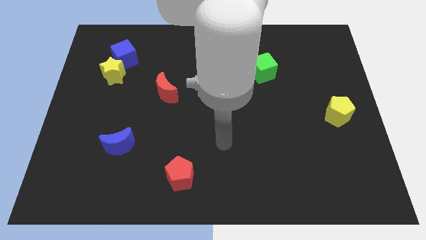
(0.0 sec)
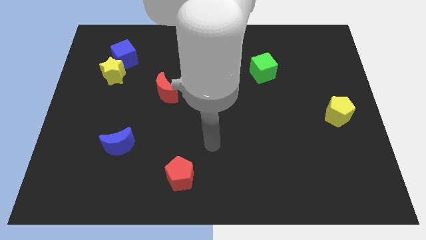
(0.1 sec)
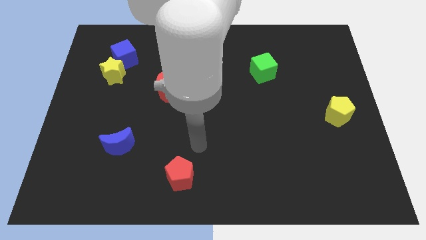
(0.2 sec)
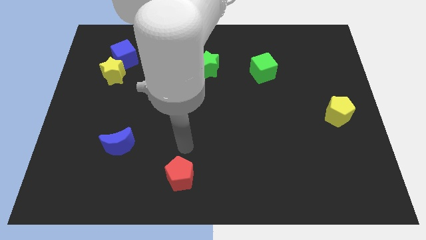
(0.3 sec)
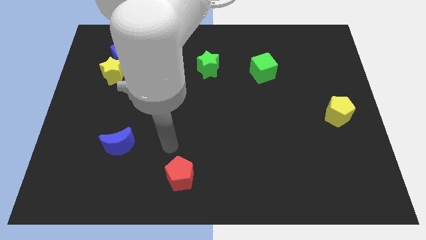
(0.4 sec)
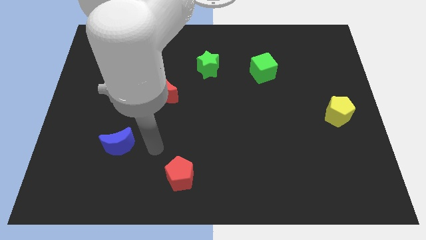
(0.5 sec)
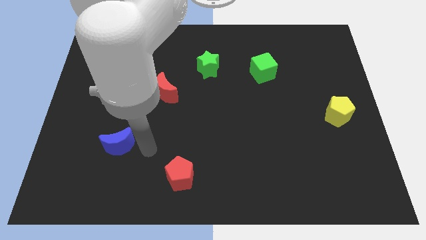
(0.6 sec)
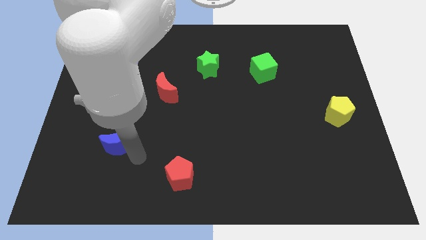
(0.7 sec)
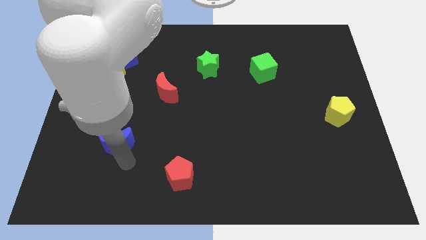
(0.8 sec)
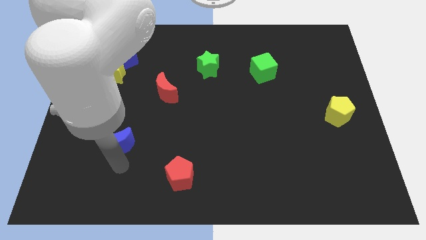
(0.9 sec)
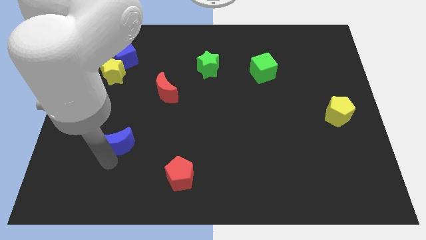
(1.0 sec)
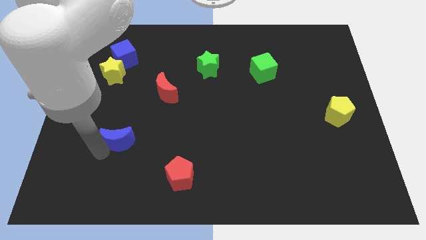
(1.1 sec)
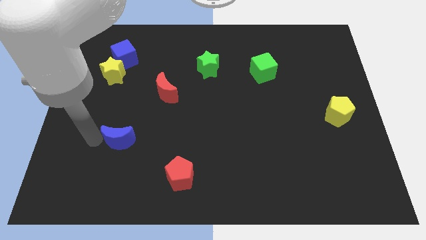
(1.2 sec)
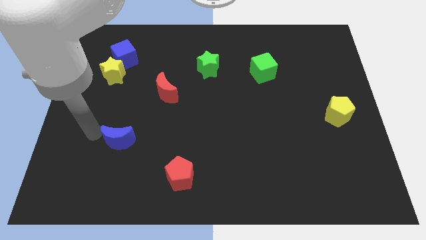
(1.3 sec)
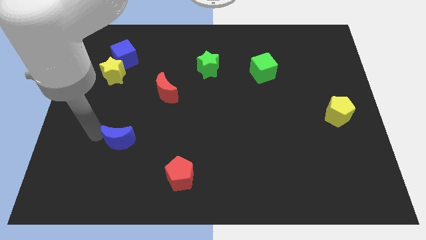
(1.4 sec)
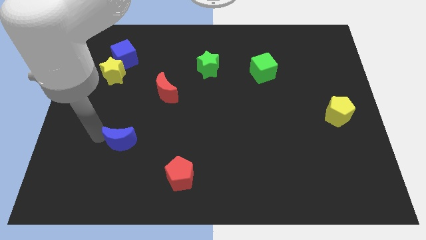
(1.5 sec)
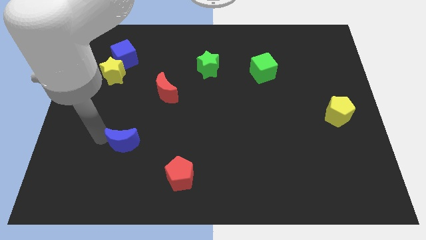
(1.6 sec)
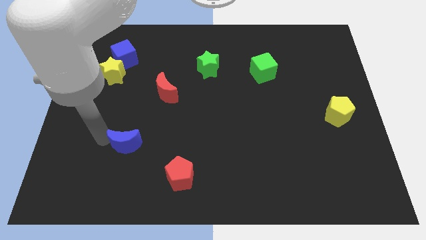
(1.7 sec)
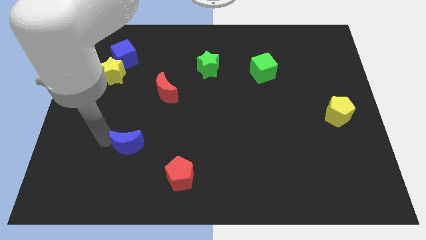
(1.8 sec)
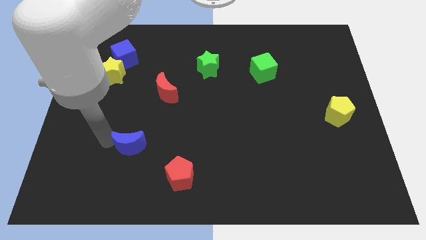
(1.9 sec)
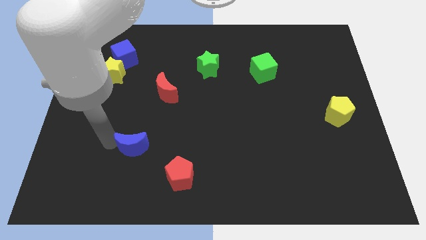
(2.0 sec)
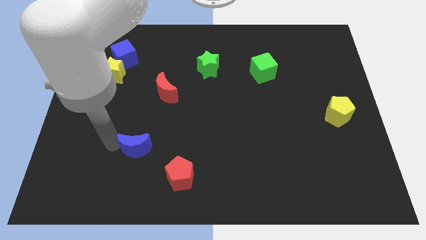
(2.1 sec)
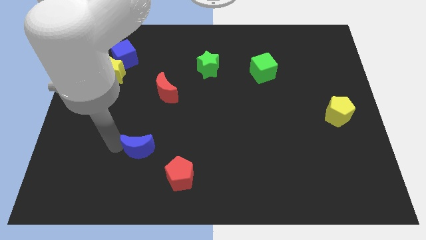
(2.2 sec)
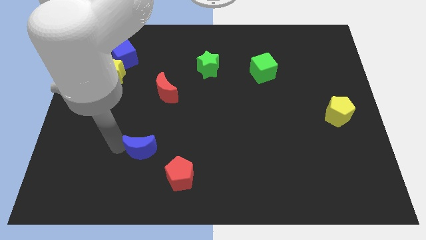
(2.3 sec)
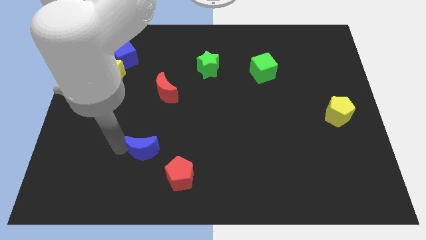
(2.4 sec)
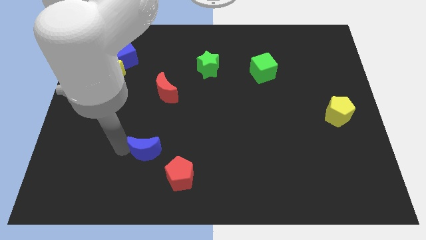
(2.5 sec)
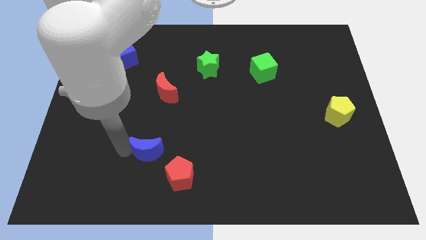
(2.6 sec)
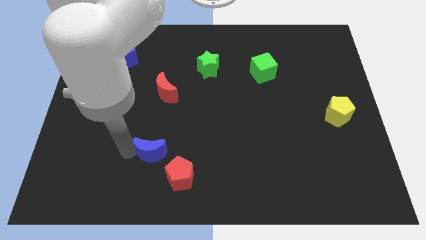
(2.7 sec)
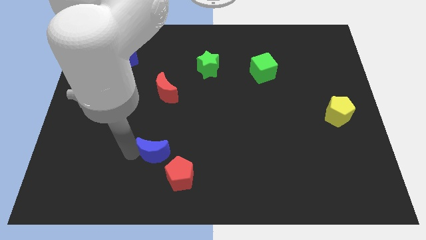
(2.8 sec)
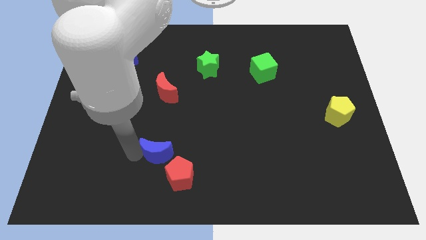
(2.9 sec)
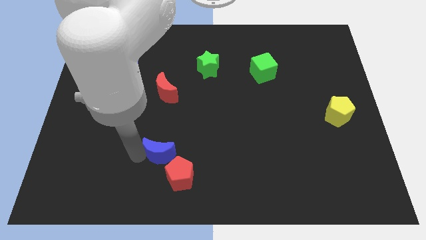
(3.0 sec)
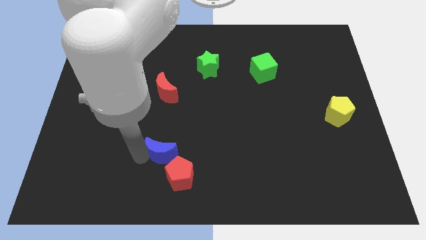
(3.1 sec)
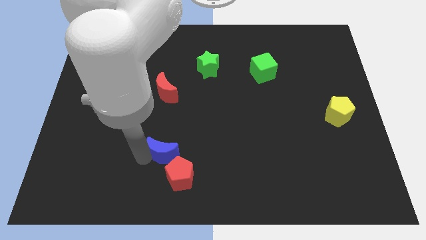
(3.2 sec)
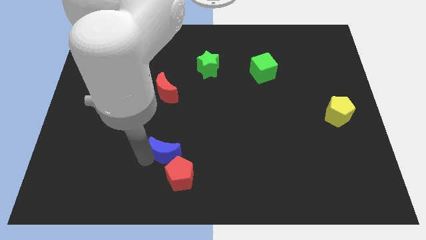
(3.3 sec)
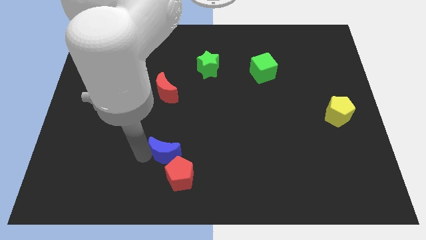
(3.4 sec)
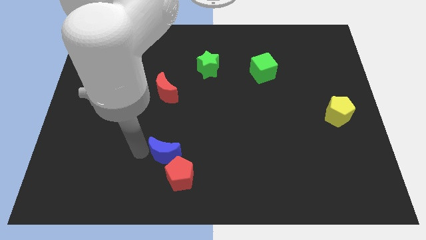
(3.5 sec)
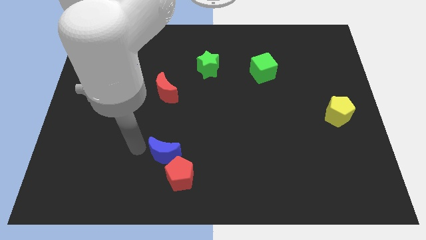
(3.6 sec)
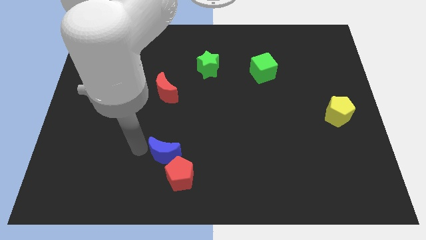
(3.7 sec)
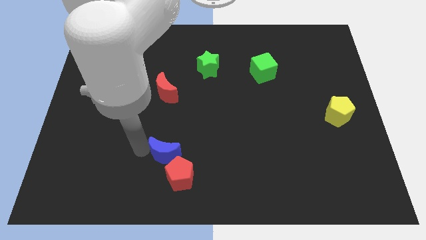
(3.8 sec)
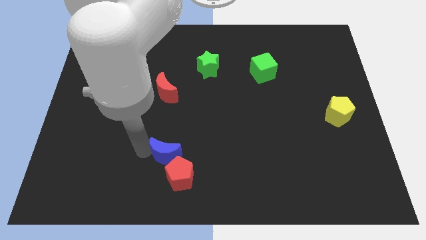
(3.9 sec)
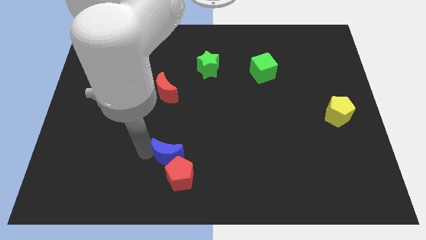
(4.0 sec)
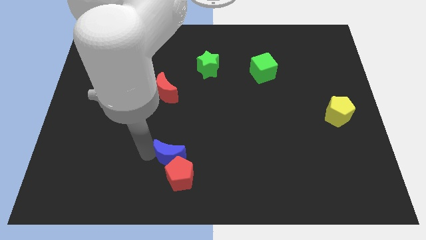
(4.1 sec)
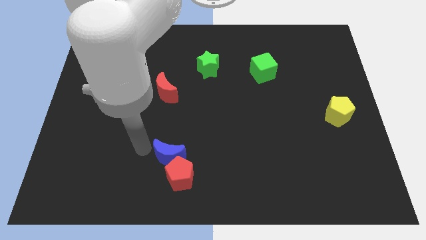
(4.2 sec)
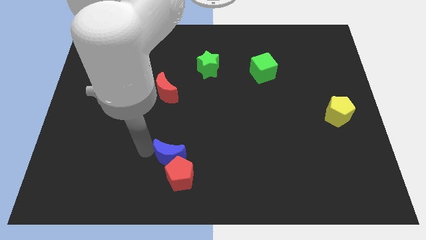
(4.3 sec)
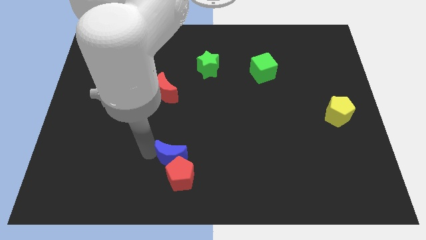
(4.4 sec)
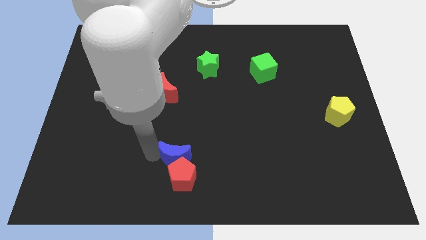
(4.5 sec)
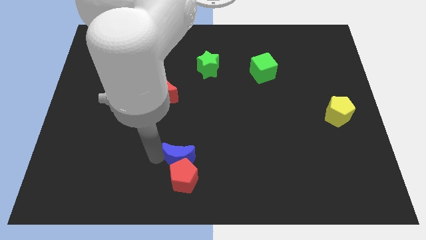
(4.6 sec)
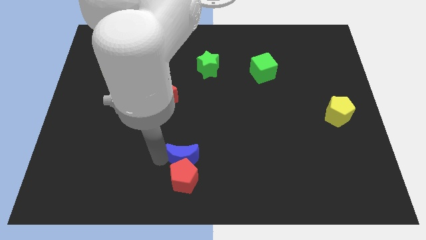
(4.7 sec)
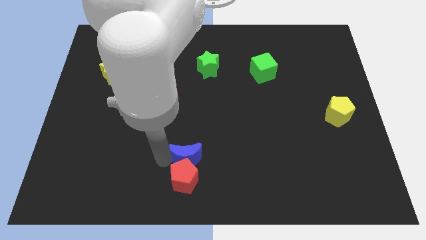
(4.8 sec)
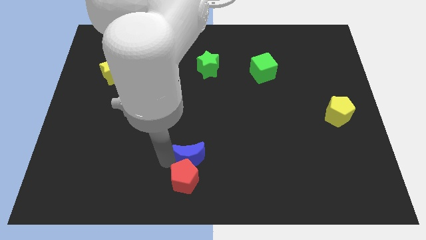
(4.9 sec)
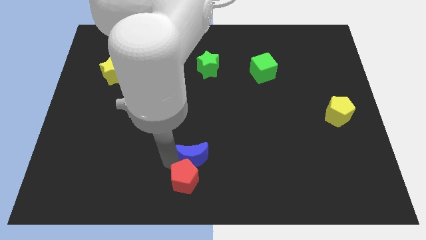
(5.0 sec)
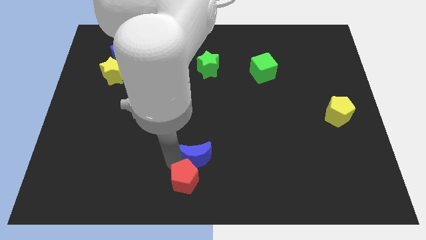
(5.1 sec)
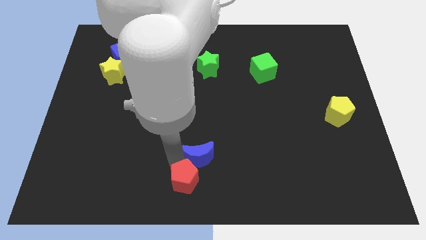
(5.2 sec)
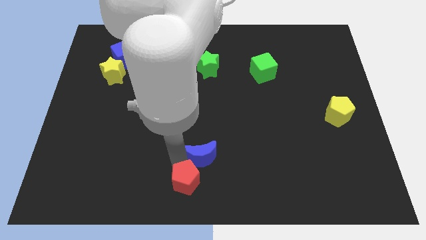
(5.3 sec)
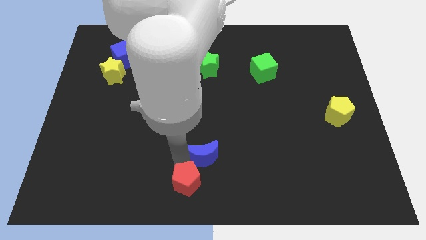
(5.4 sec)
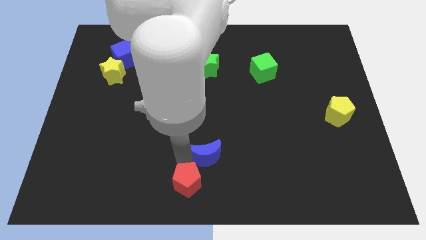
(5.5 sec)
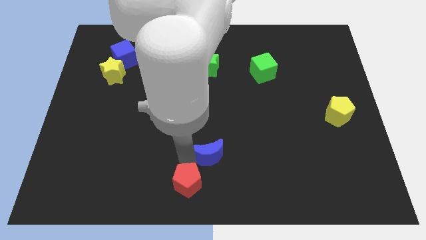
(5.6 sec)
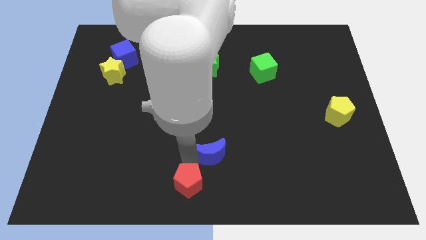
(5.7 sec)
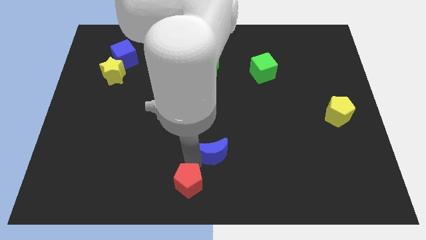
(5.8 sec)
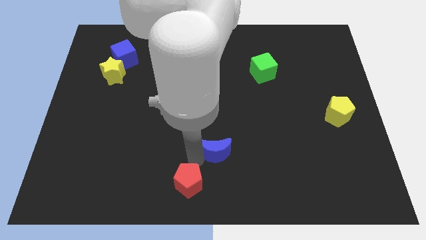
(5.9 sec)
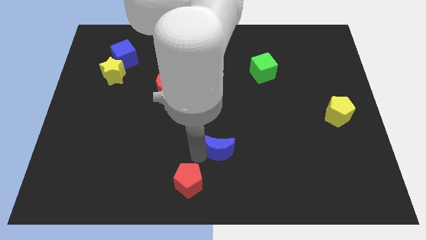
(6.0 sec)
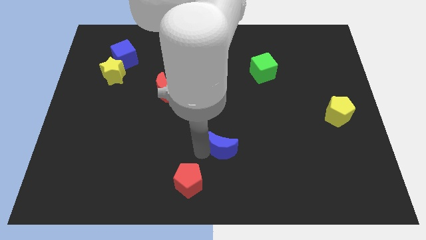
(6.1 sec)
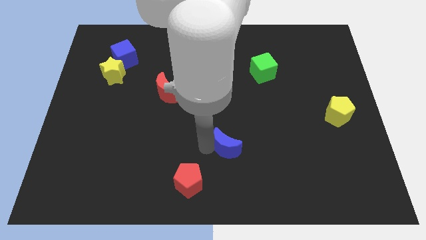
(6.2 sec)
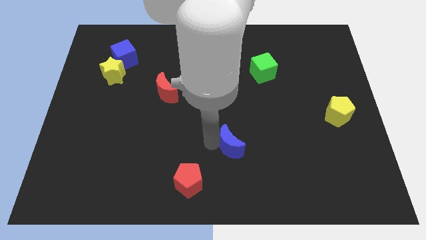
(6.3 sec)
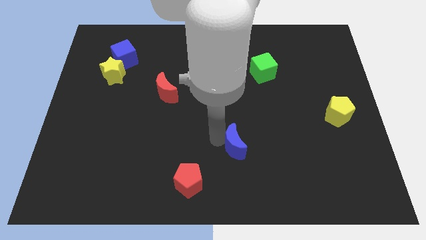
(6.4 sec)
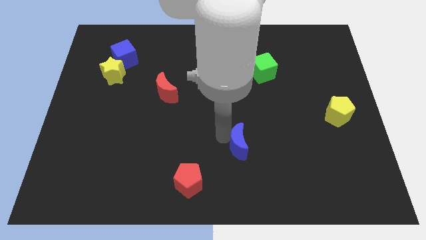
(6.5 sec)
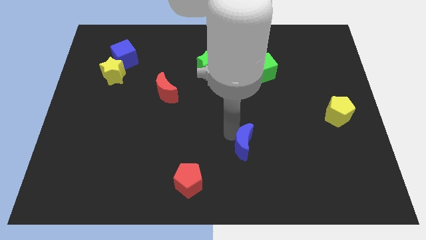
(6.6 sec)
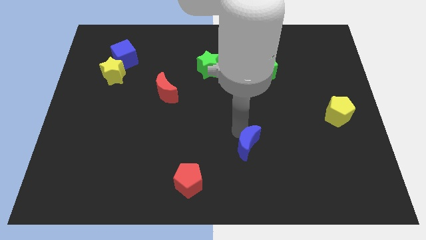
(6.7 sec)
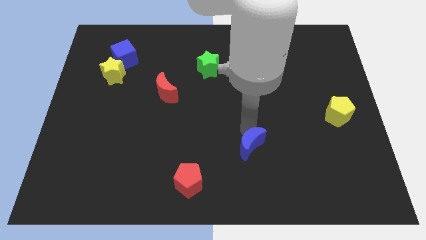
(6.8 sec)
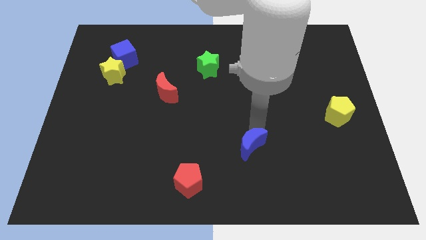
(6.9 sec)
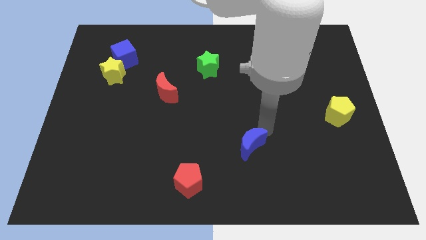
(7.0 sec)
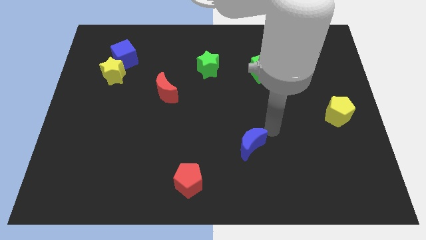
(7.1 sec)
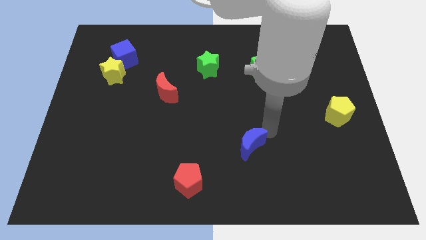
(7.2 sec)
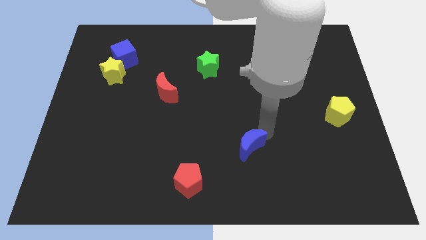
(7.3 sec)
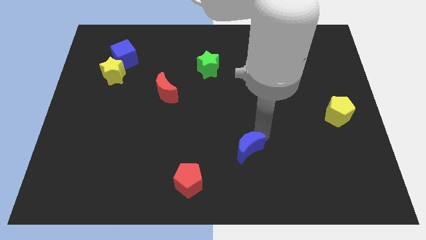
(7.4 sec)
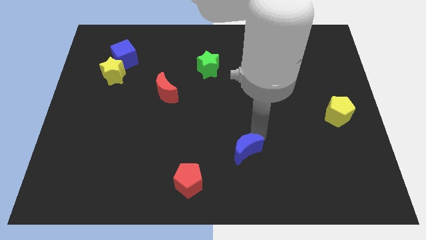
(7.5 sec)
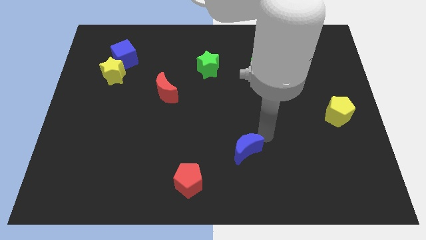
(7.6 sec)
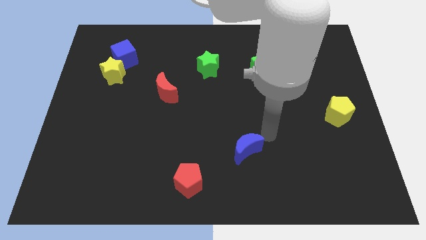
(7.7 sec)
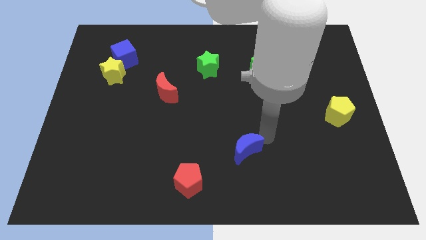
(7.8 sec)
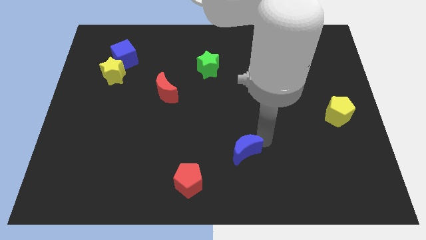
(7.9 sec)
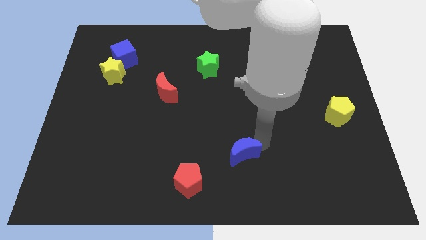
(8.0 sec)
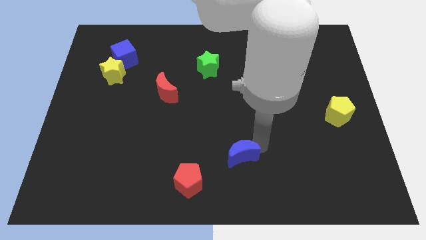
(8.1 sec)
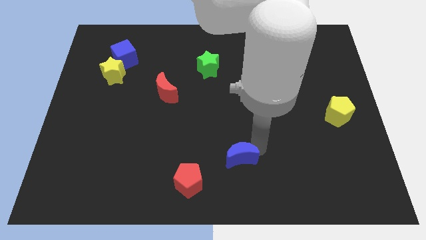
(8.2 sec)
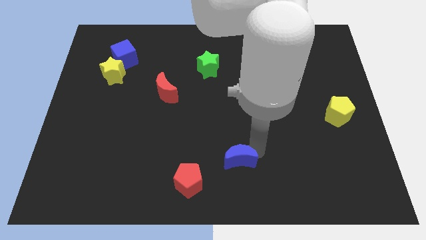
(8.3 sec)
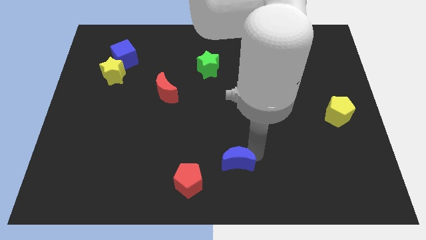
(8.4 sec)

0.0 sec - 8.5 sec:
move the blue moon to the right of the red pentagon
